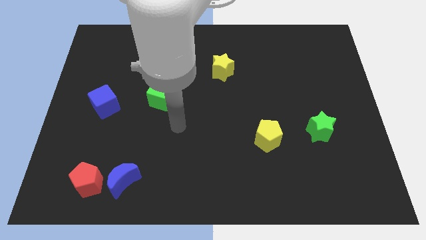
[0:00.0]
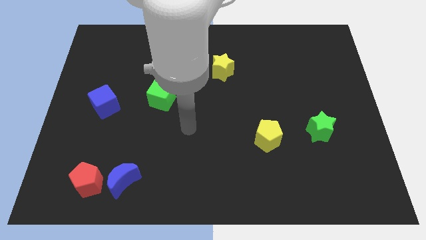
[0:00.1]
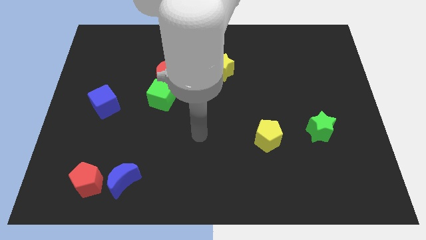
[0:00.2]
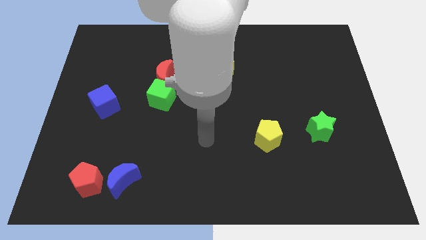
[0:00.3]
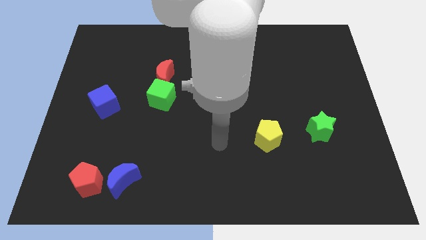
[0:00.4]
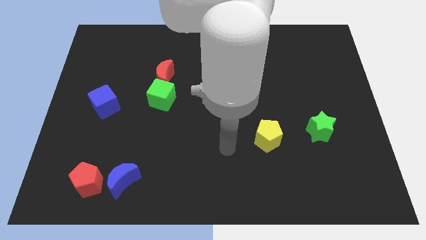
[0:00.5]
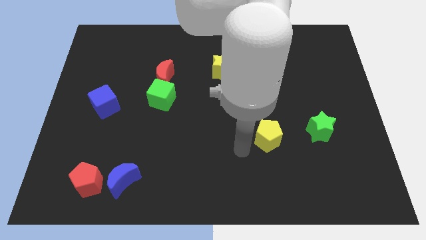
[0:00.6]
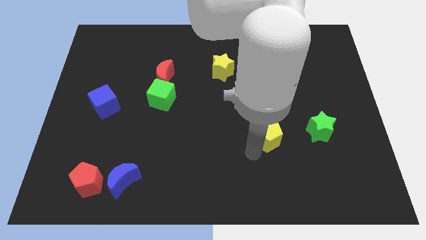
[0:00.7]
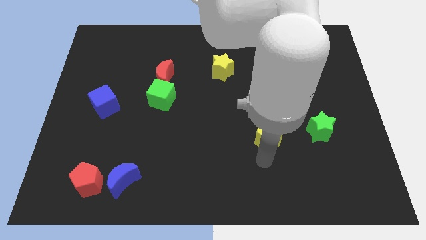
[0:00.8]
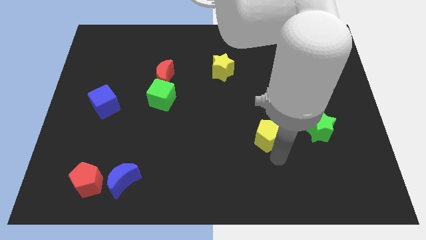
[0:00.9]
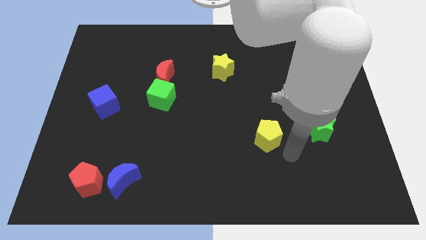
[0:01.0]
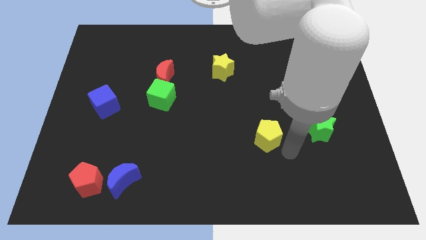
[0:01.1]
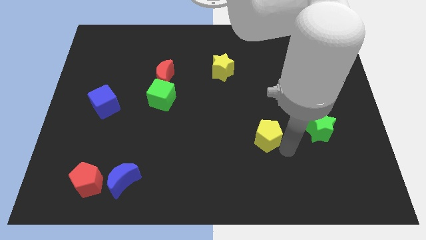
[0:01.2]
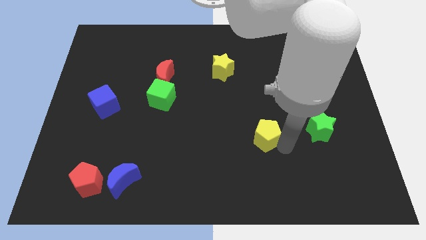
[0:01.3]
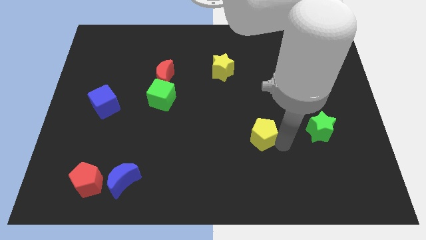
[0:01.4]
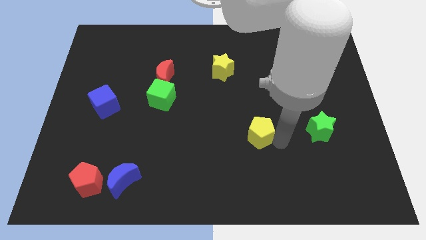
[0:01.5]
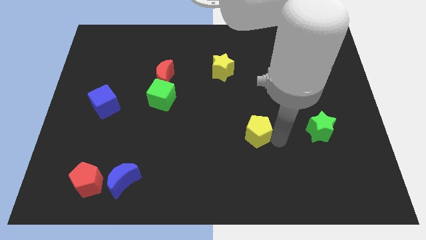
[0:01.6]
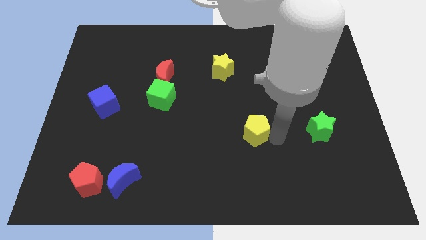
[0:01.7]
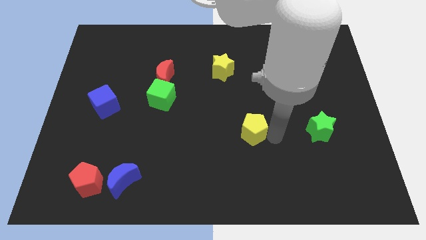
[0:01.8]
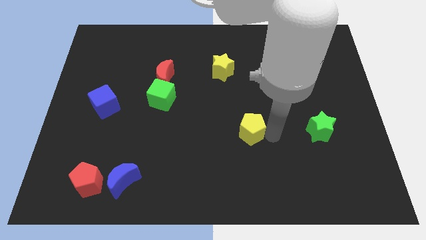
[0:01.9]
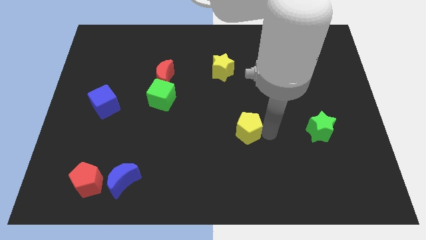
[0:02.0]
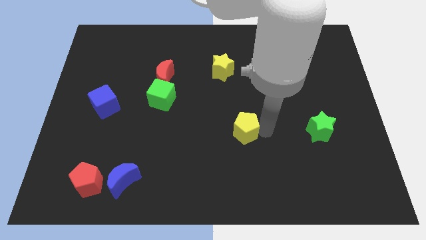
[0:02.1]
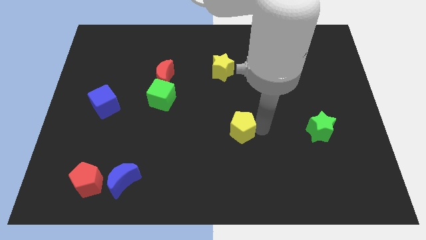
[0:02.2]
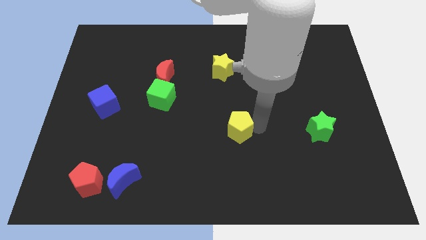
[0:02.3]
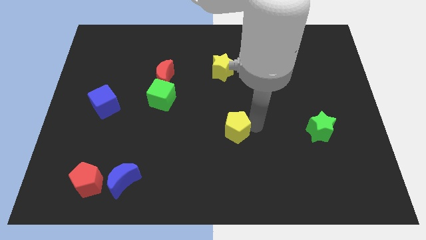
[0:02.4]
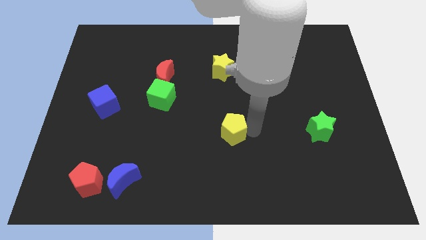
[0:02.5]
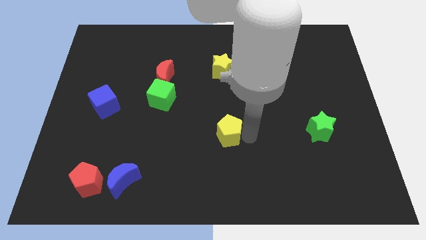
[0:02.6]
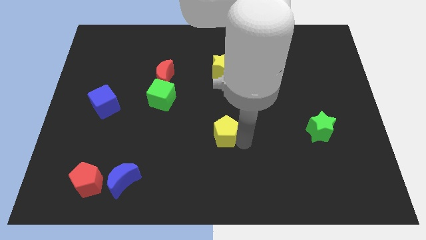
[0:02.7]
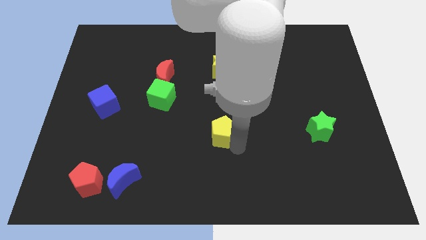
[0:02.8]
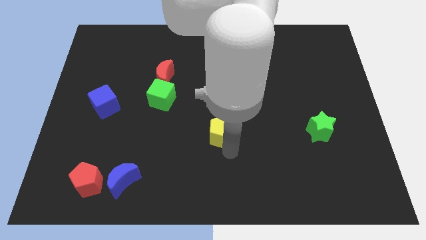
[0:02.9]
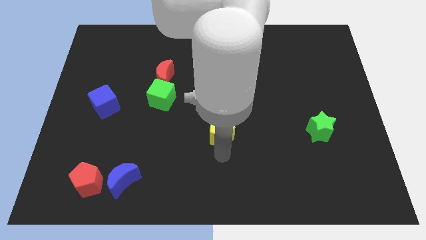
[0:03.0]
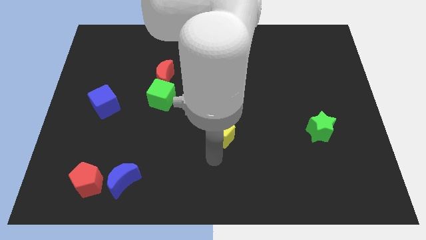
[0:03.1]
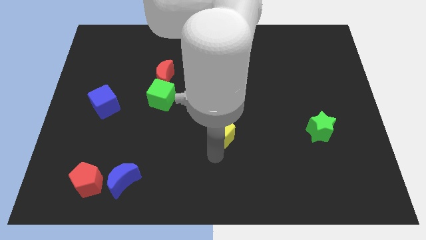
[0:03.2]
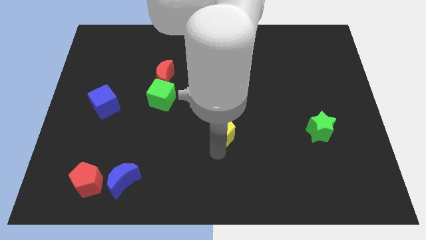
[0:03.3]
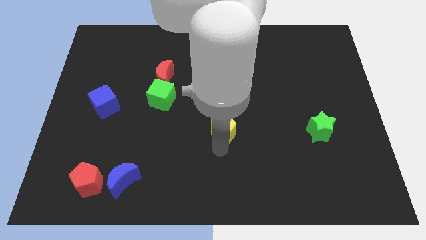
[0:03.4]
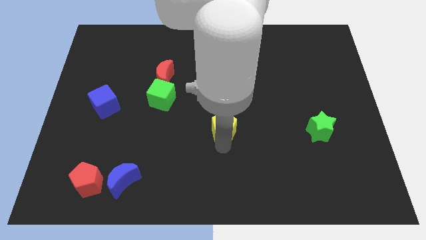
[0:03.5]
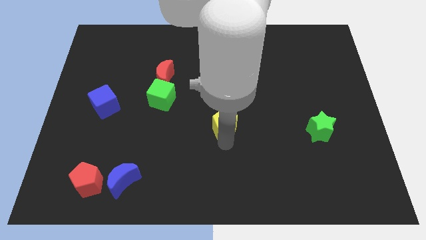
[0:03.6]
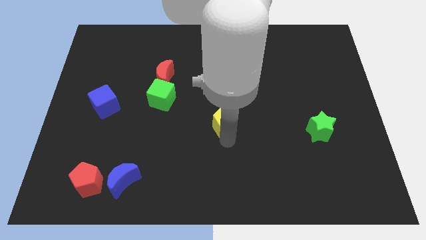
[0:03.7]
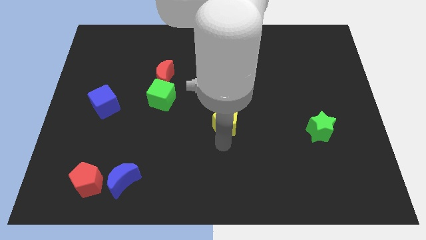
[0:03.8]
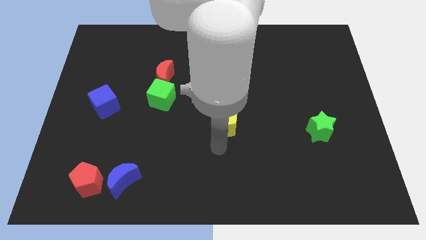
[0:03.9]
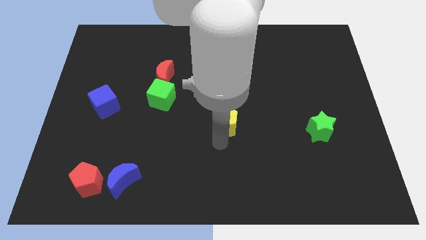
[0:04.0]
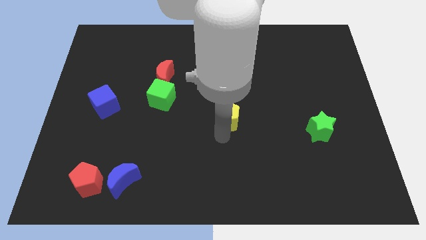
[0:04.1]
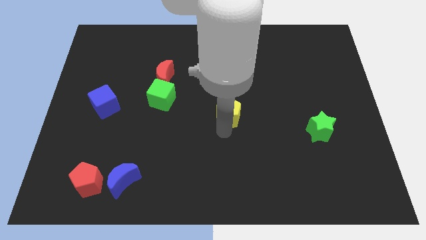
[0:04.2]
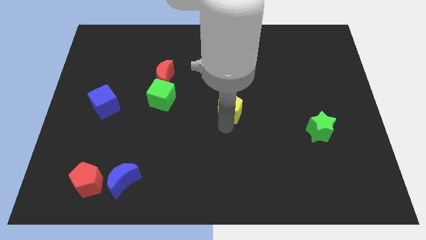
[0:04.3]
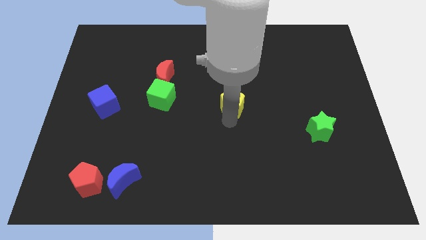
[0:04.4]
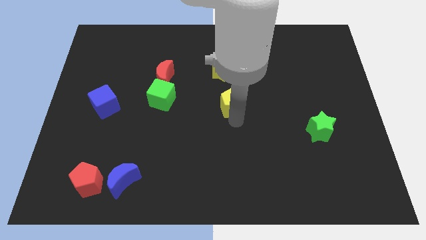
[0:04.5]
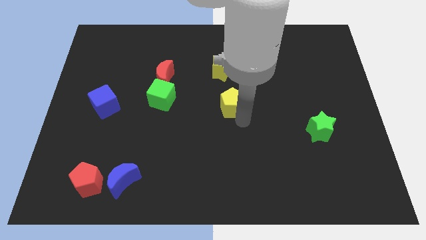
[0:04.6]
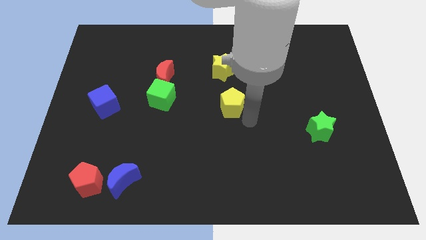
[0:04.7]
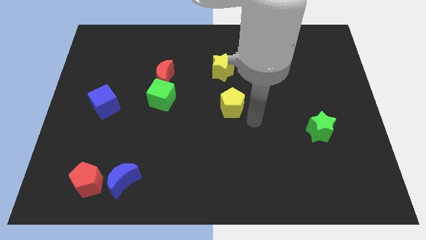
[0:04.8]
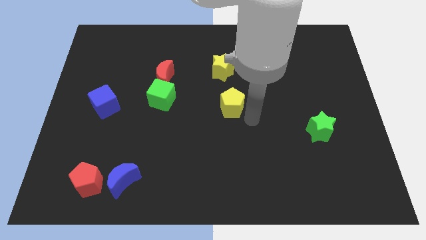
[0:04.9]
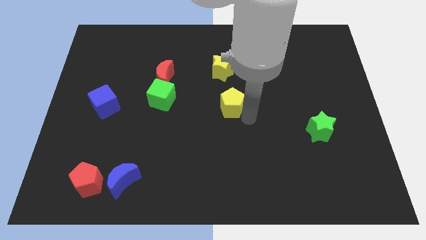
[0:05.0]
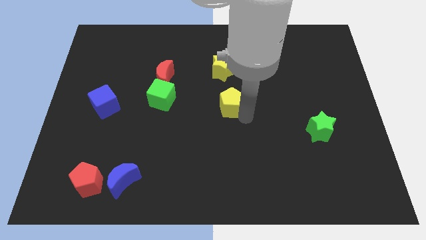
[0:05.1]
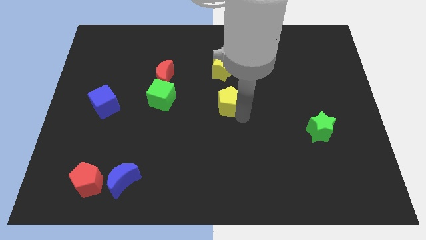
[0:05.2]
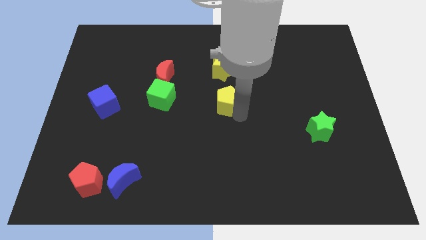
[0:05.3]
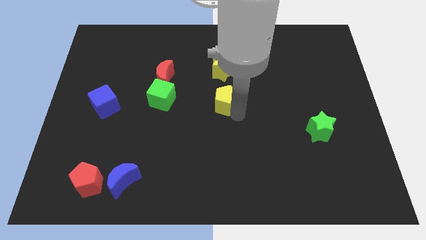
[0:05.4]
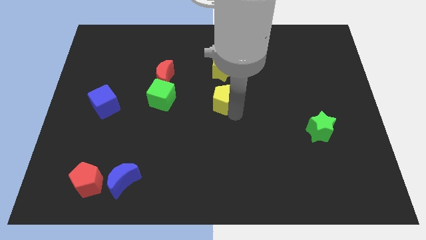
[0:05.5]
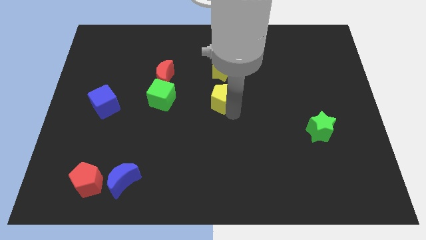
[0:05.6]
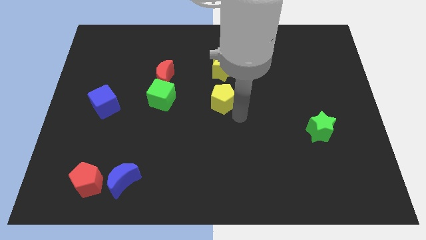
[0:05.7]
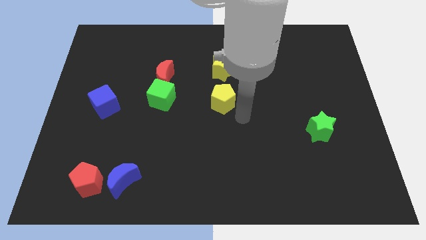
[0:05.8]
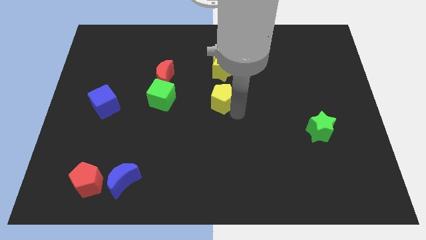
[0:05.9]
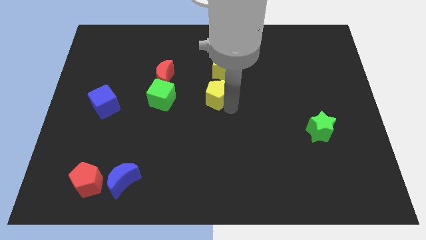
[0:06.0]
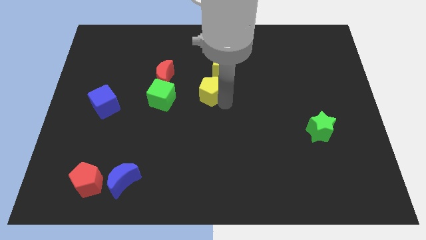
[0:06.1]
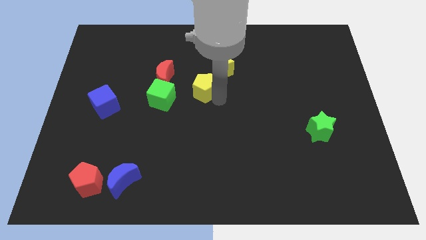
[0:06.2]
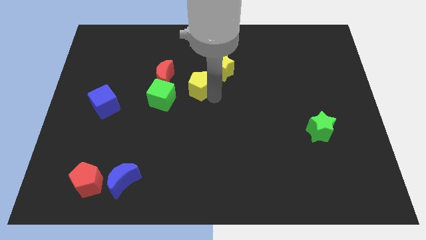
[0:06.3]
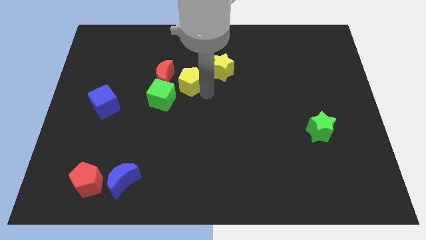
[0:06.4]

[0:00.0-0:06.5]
slide the yellow pentagon just left of the yellow star

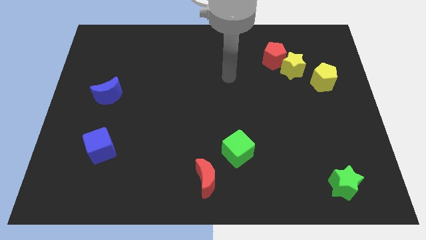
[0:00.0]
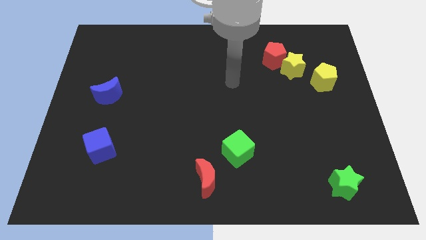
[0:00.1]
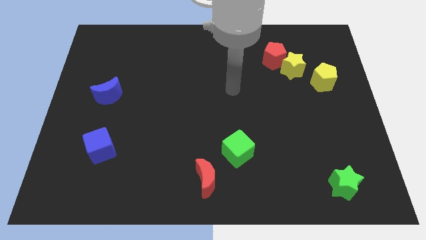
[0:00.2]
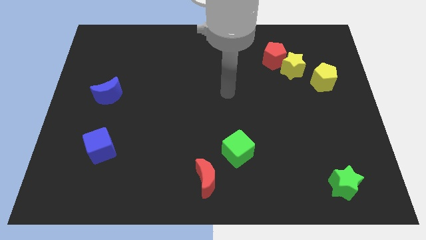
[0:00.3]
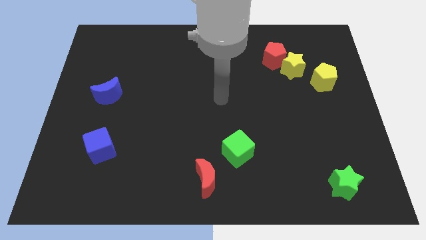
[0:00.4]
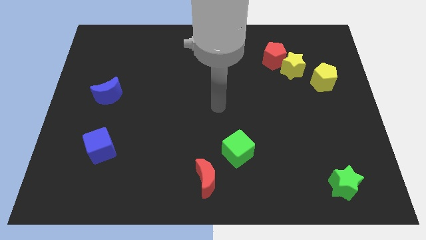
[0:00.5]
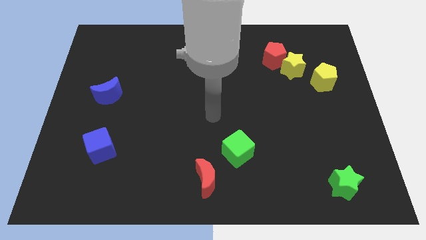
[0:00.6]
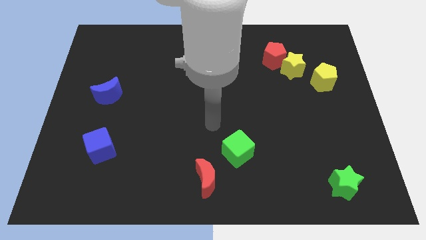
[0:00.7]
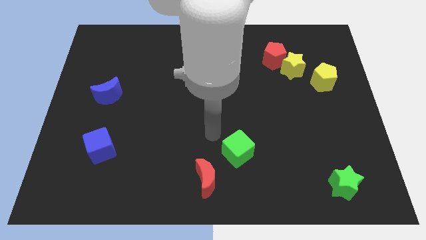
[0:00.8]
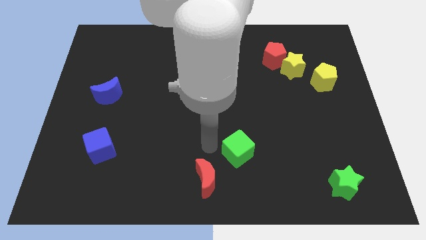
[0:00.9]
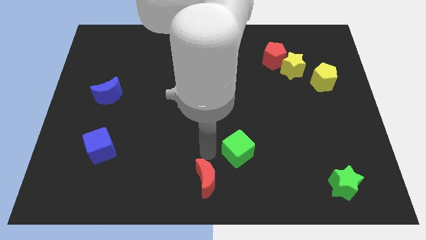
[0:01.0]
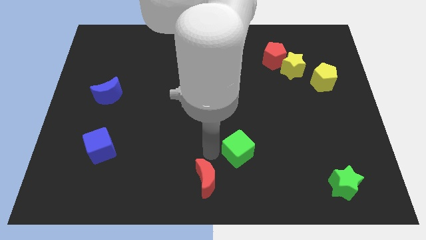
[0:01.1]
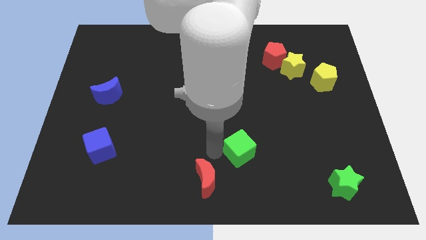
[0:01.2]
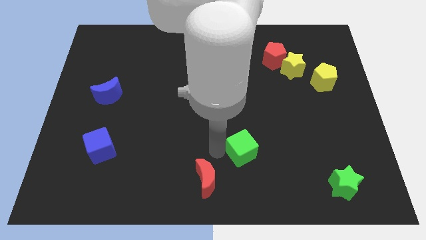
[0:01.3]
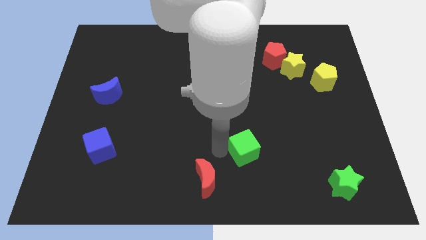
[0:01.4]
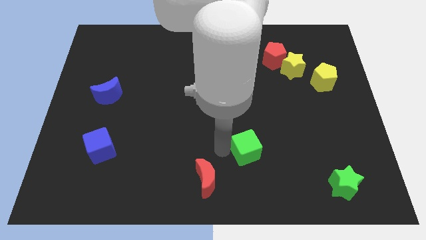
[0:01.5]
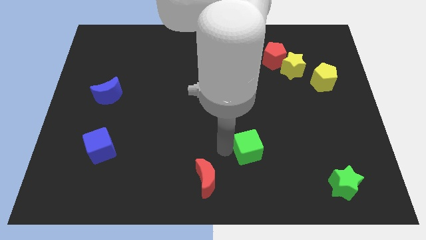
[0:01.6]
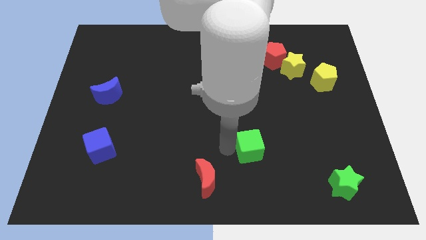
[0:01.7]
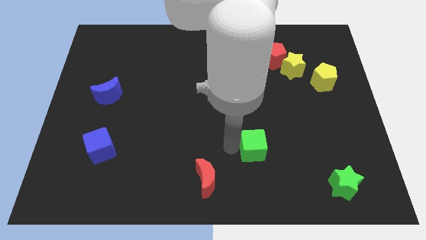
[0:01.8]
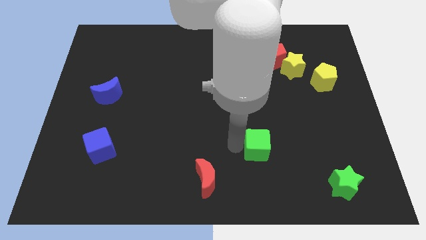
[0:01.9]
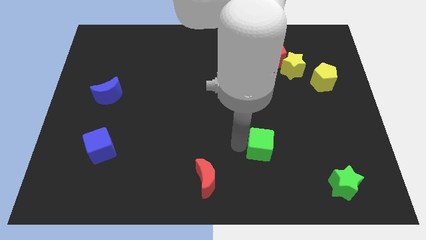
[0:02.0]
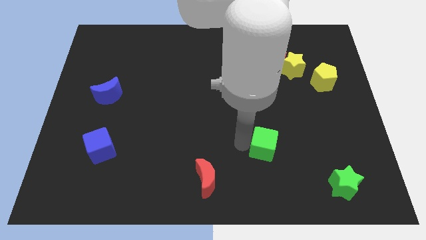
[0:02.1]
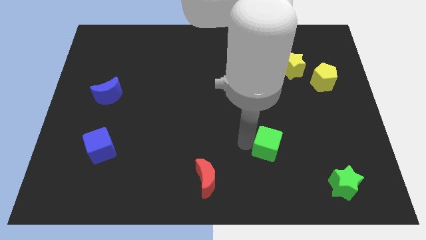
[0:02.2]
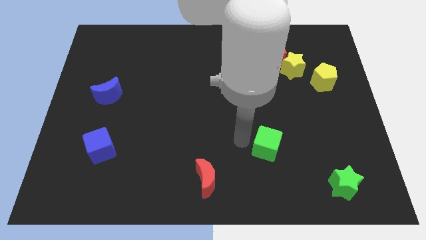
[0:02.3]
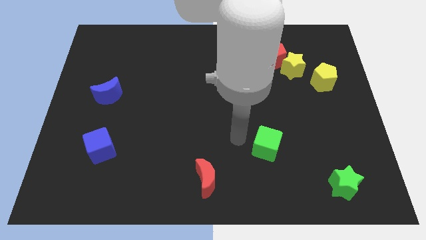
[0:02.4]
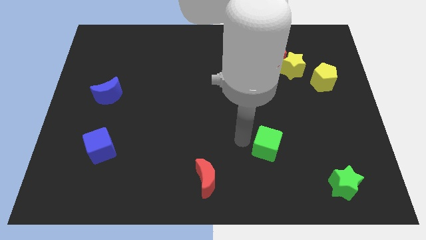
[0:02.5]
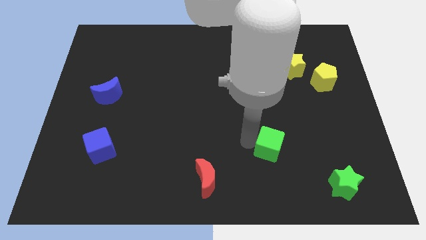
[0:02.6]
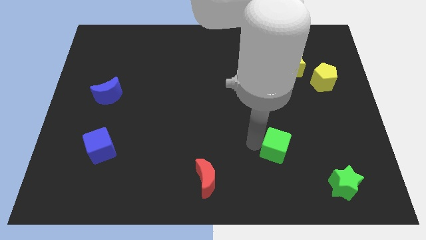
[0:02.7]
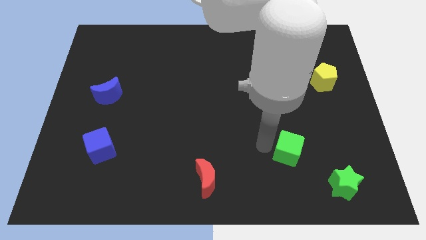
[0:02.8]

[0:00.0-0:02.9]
push the green cube to the top left of the green star
